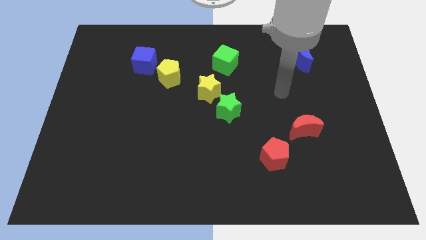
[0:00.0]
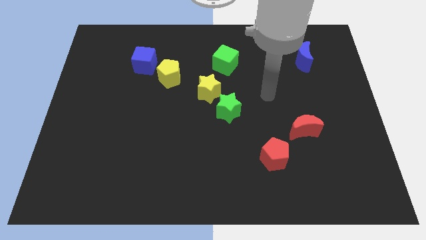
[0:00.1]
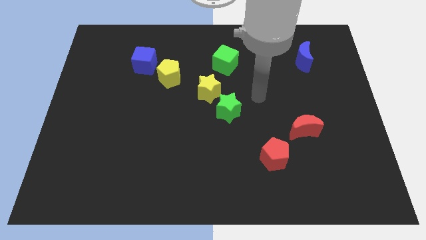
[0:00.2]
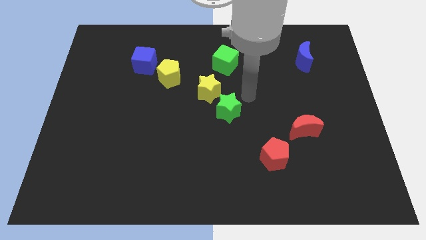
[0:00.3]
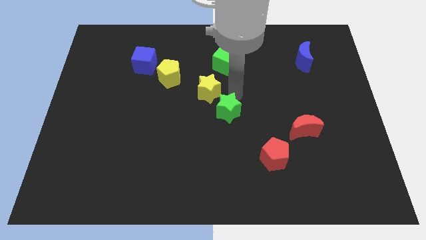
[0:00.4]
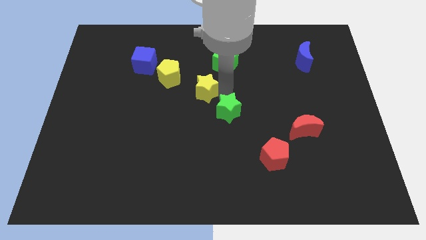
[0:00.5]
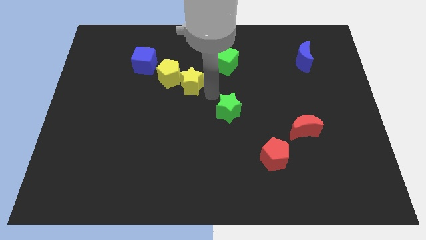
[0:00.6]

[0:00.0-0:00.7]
separate the green star from the yellow star

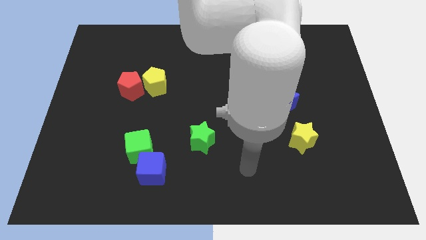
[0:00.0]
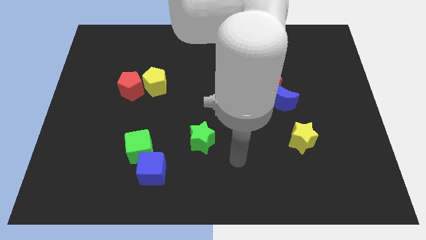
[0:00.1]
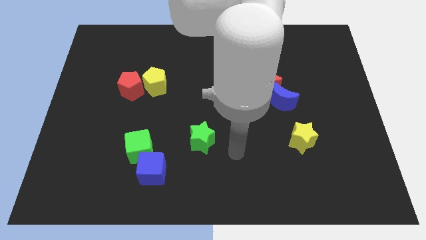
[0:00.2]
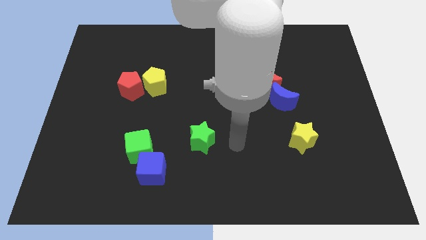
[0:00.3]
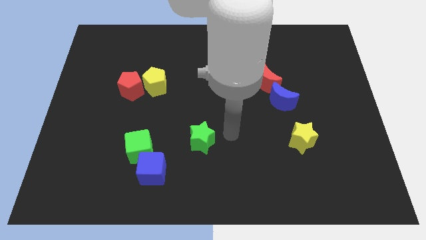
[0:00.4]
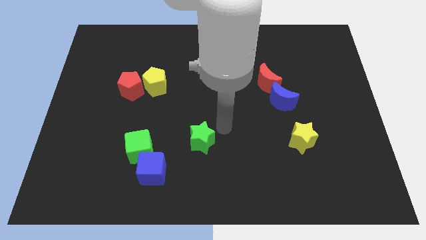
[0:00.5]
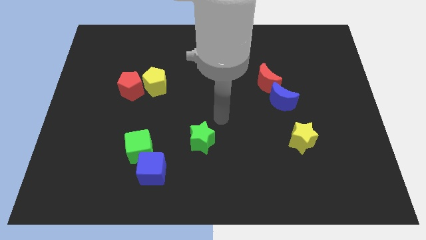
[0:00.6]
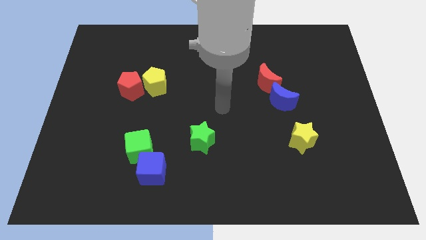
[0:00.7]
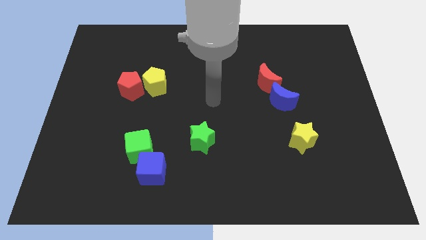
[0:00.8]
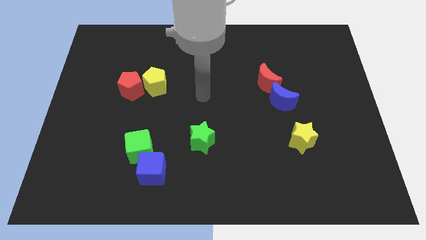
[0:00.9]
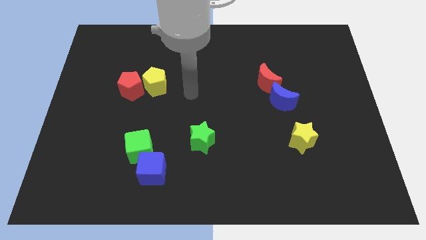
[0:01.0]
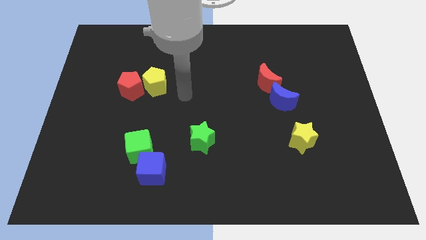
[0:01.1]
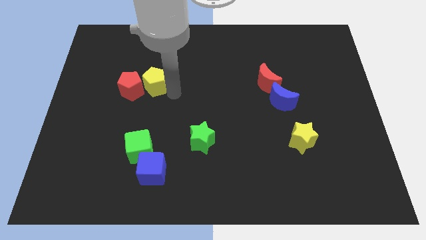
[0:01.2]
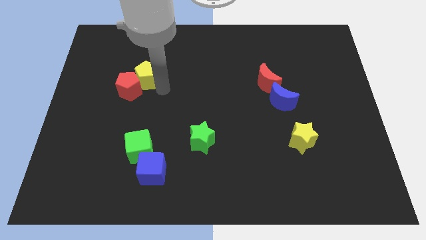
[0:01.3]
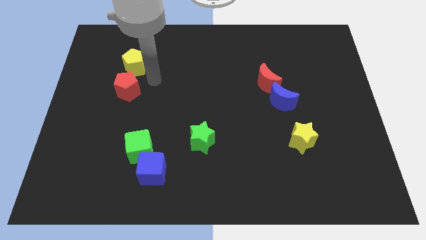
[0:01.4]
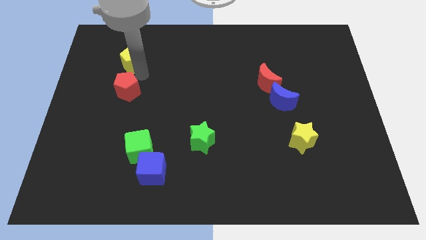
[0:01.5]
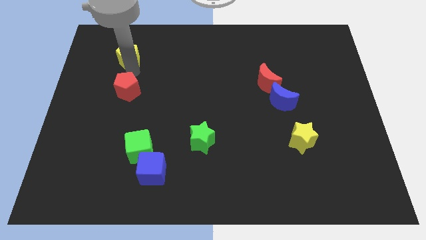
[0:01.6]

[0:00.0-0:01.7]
separate the red pentagon from the yellow pentagon

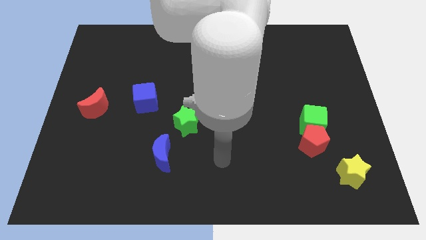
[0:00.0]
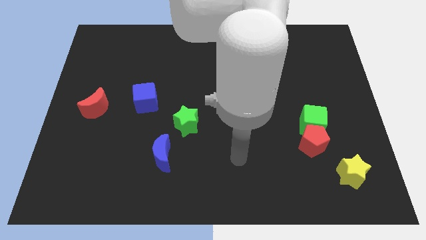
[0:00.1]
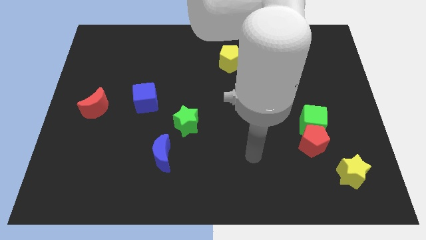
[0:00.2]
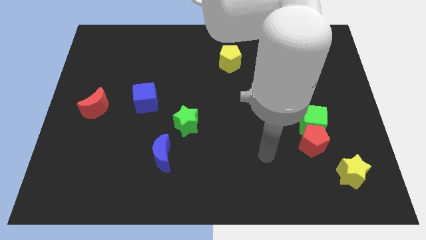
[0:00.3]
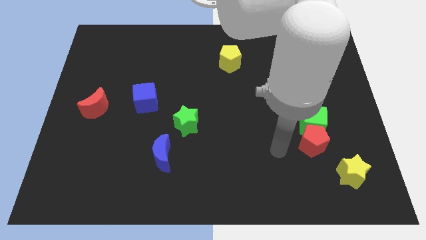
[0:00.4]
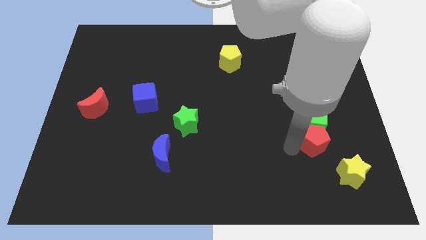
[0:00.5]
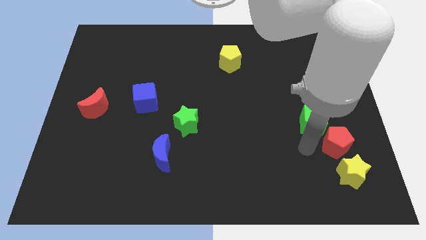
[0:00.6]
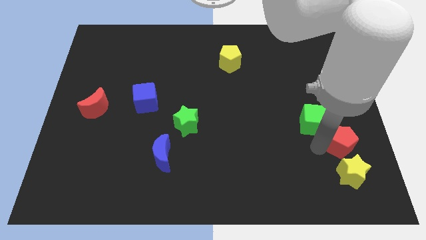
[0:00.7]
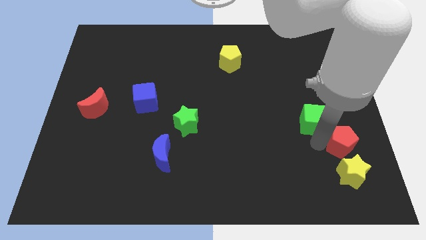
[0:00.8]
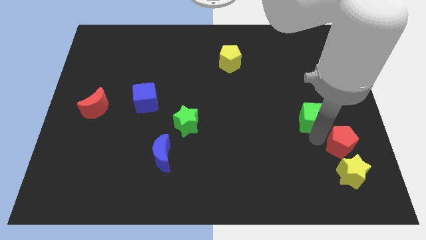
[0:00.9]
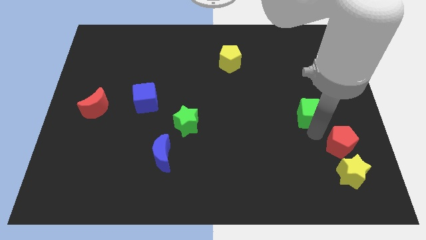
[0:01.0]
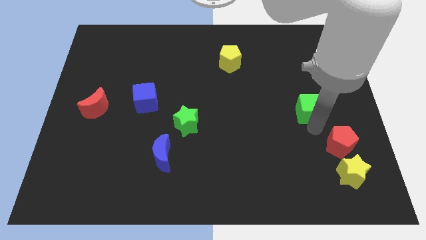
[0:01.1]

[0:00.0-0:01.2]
separate the green cube from the red pentagon

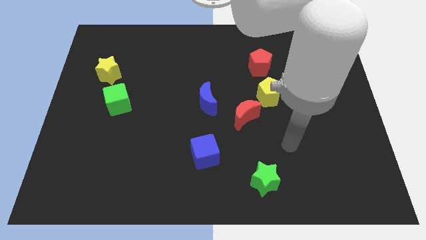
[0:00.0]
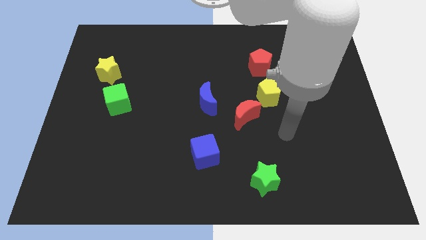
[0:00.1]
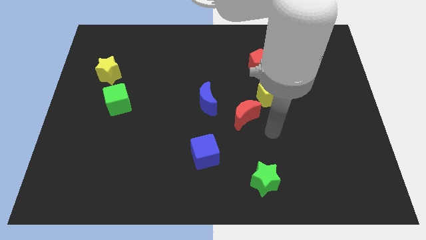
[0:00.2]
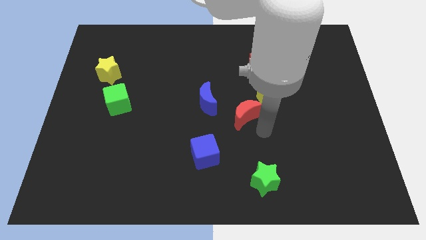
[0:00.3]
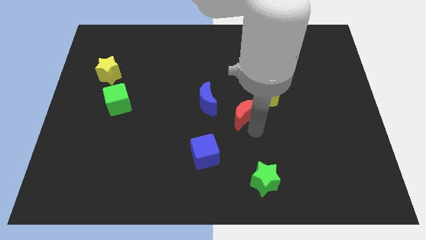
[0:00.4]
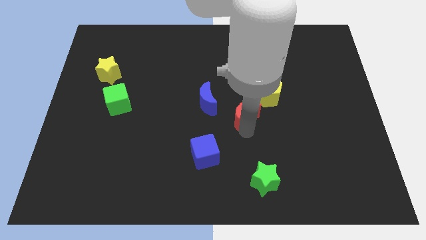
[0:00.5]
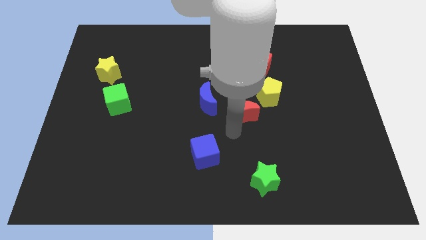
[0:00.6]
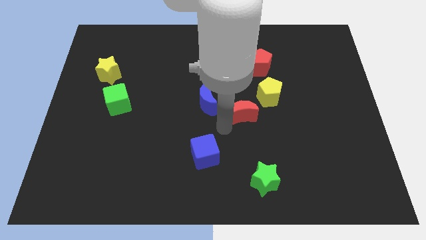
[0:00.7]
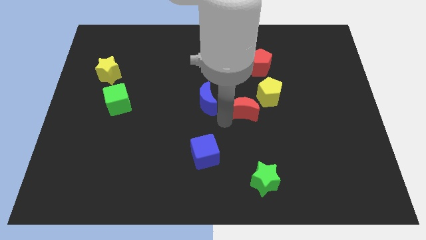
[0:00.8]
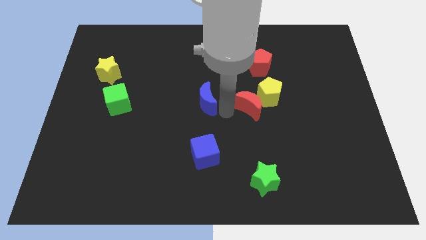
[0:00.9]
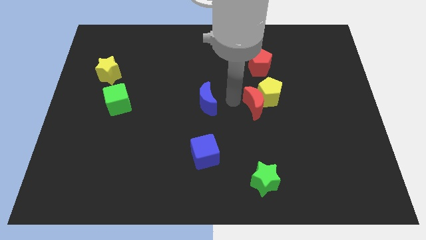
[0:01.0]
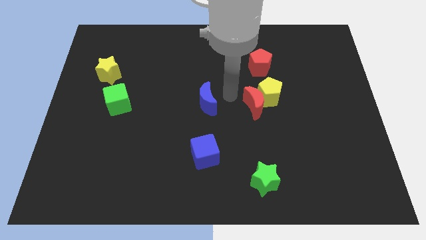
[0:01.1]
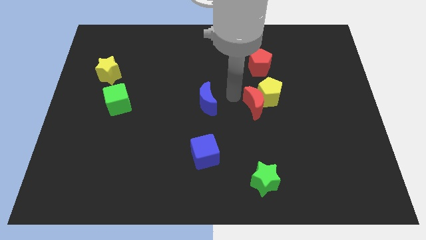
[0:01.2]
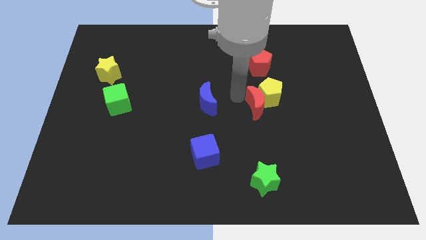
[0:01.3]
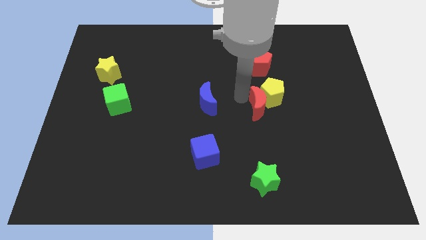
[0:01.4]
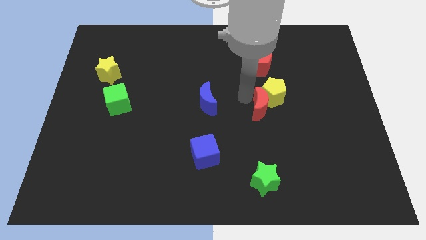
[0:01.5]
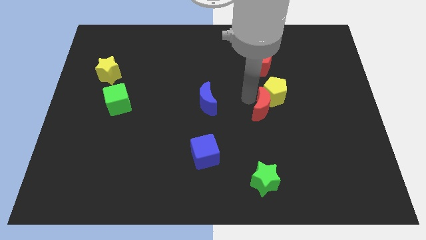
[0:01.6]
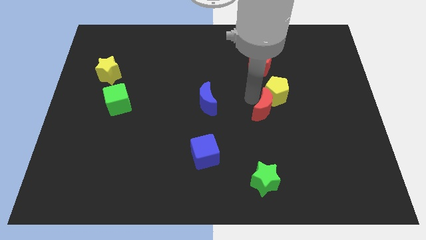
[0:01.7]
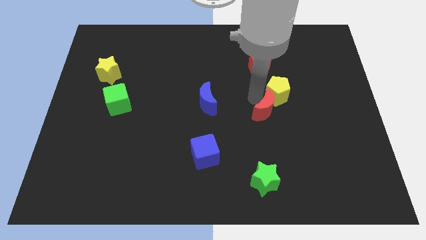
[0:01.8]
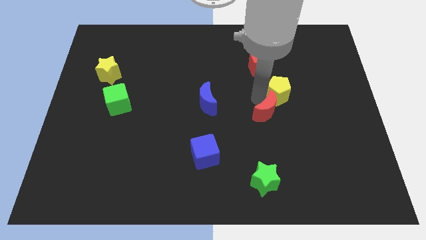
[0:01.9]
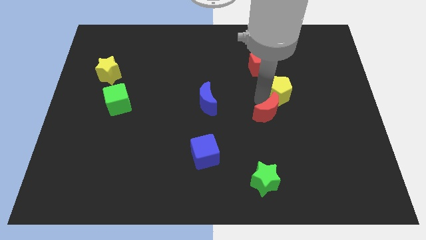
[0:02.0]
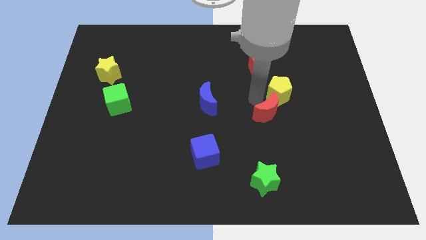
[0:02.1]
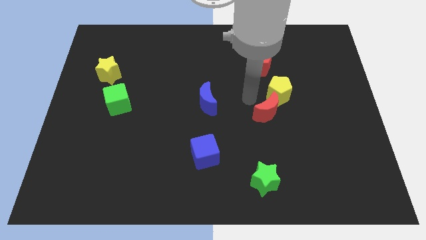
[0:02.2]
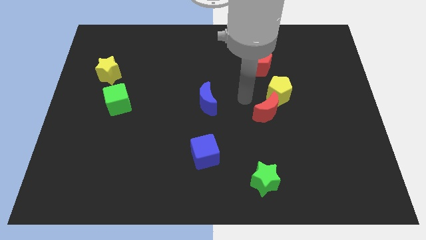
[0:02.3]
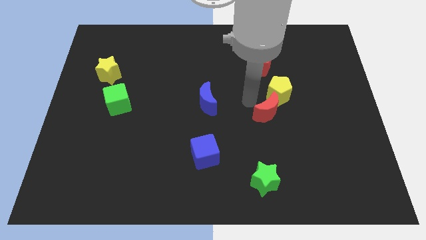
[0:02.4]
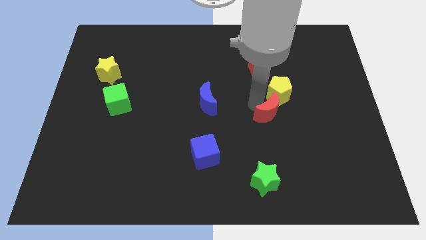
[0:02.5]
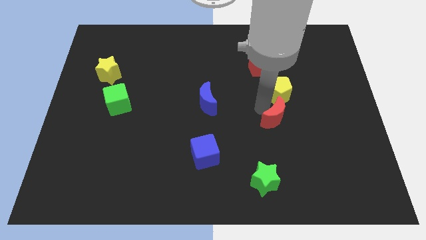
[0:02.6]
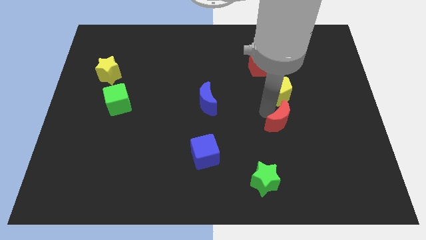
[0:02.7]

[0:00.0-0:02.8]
separate the red moon from the yellow pentagon and blue moon

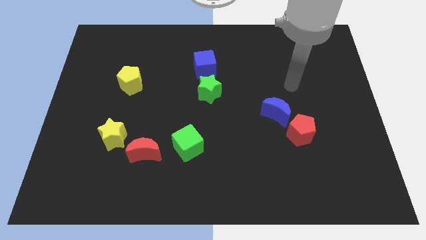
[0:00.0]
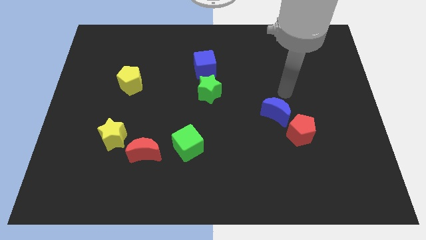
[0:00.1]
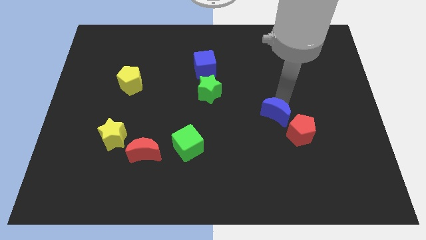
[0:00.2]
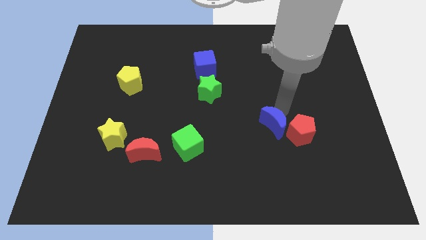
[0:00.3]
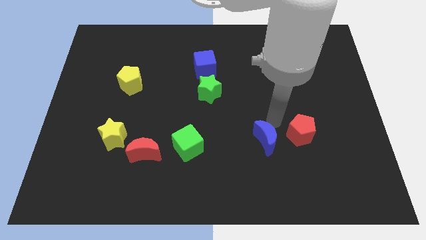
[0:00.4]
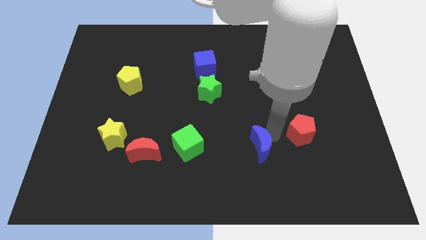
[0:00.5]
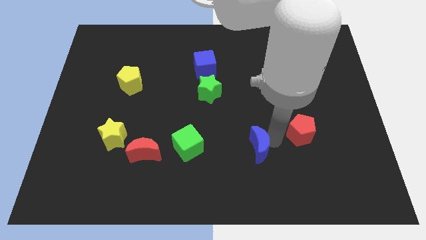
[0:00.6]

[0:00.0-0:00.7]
separate the red pentagon from the blue moon

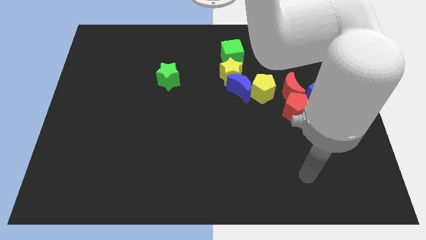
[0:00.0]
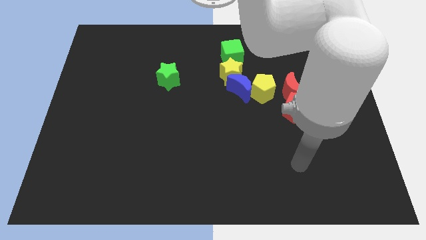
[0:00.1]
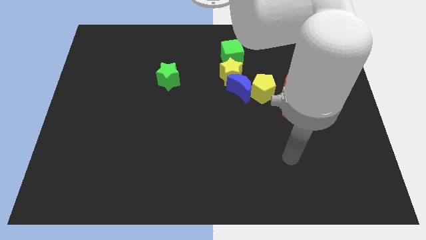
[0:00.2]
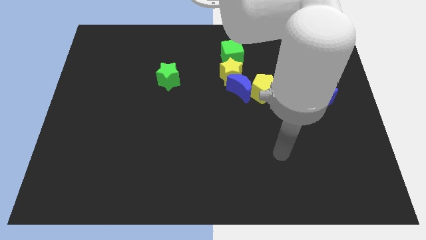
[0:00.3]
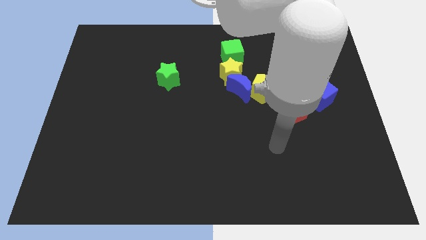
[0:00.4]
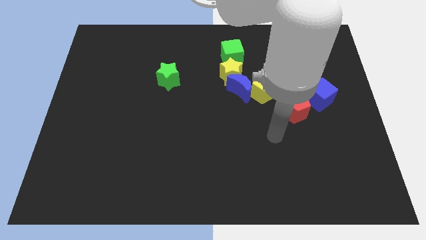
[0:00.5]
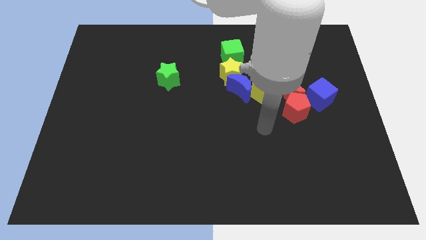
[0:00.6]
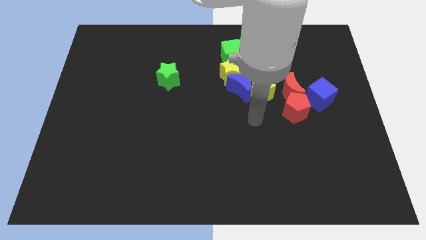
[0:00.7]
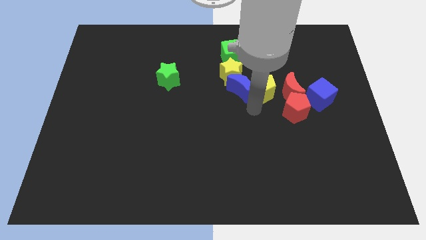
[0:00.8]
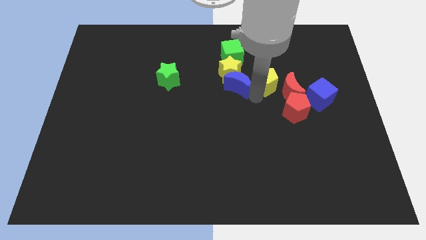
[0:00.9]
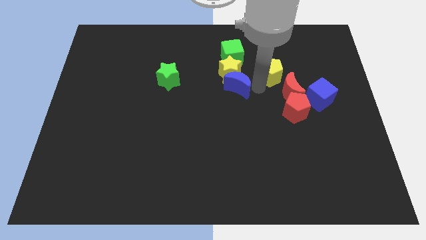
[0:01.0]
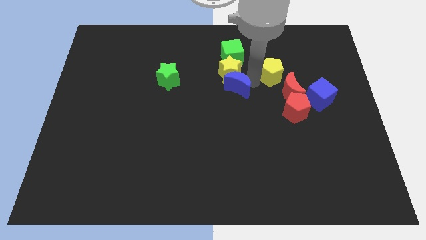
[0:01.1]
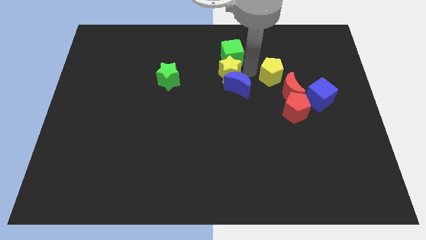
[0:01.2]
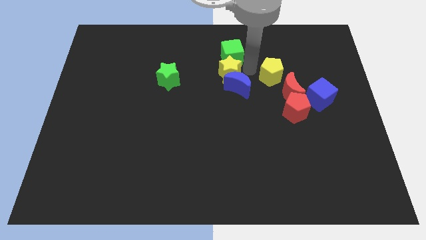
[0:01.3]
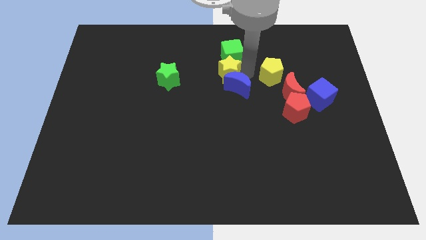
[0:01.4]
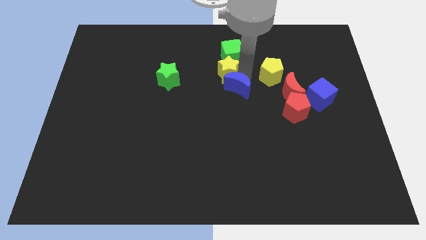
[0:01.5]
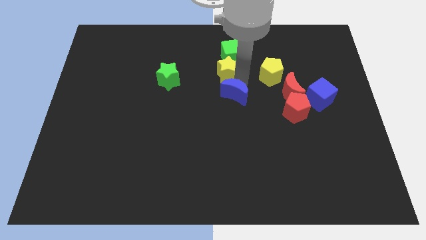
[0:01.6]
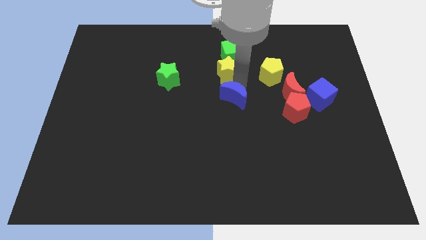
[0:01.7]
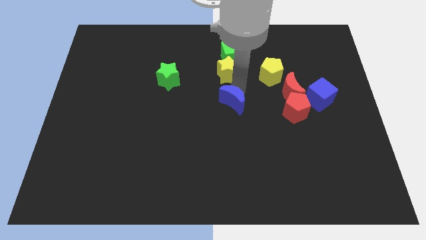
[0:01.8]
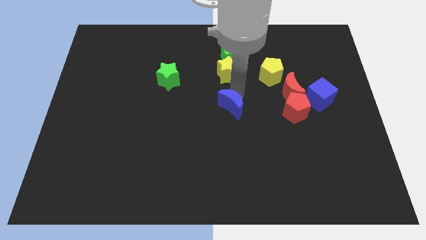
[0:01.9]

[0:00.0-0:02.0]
move the blue moon away from the yellow star and yellow pentagon

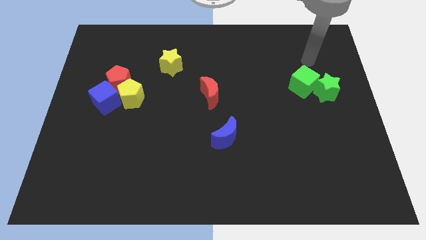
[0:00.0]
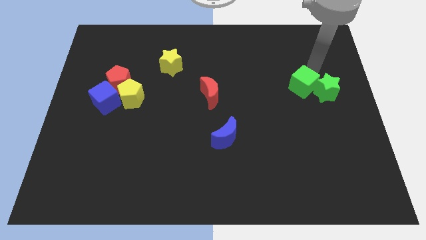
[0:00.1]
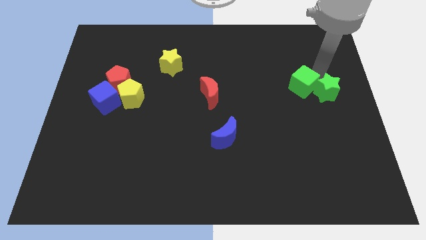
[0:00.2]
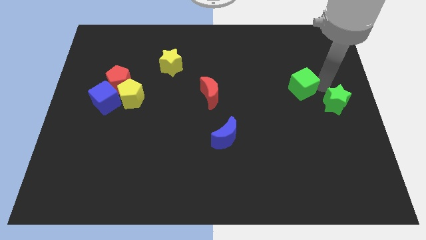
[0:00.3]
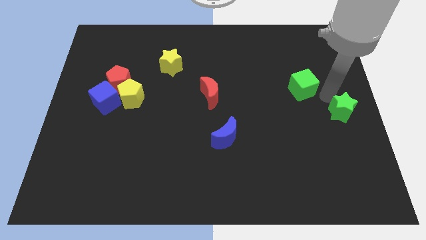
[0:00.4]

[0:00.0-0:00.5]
move the green cube away from the green star
